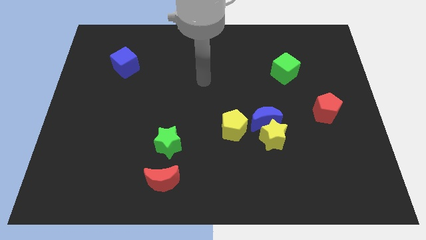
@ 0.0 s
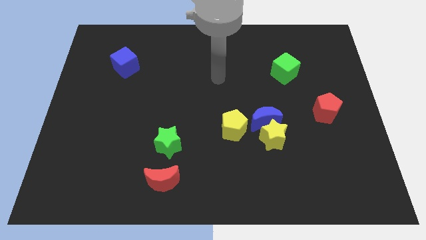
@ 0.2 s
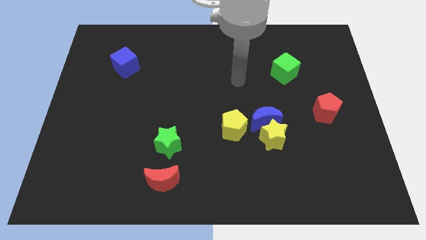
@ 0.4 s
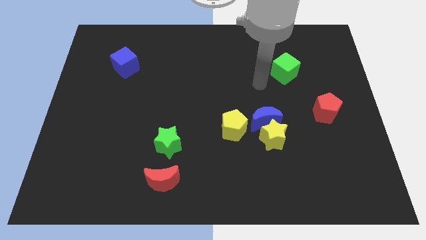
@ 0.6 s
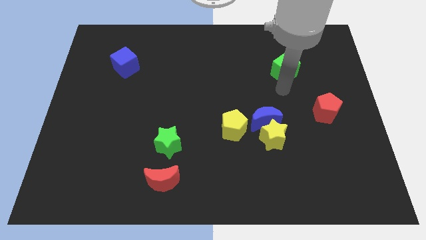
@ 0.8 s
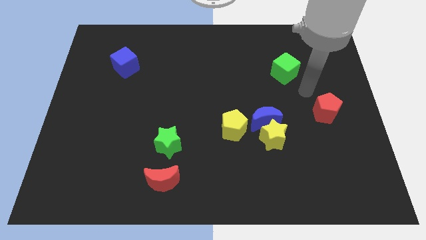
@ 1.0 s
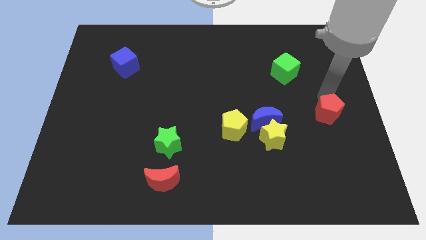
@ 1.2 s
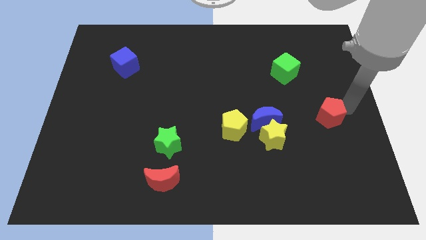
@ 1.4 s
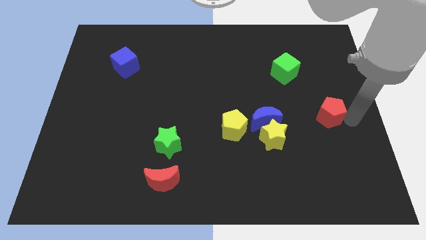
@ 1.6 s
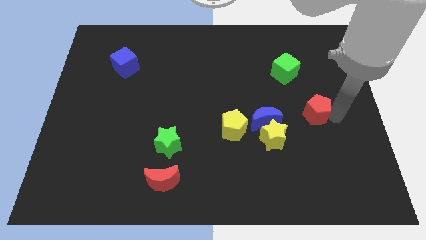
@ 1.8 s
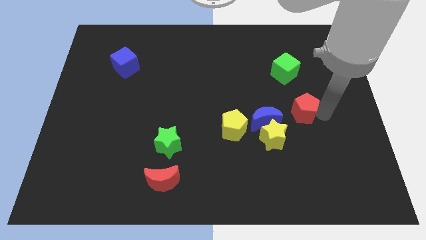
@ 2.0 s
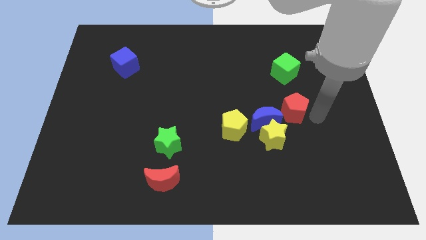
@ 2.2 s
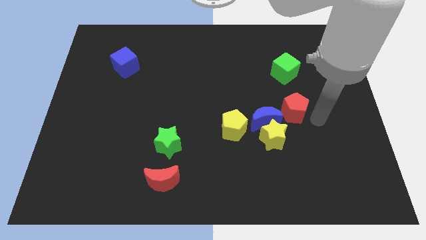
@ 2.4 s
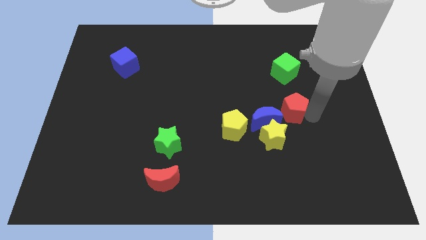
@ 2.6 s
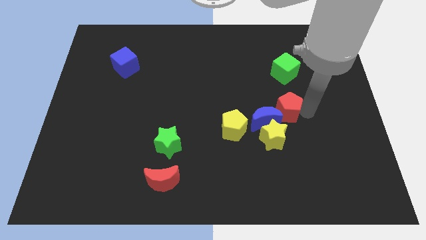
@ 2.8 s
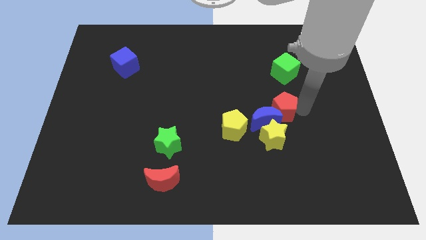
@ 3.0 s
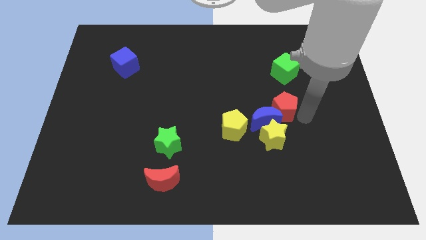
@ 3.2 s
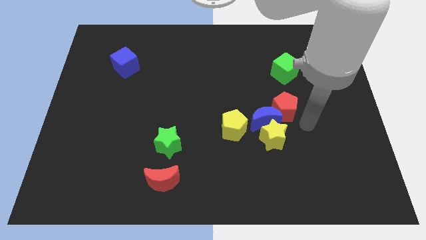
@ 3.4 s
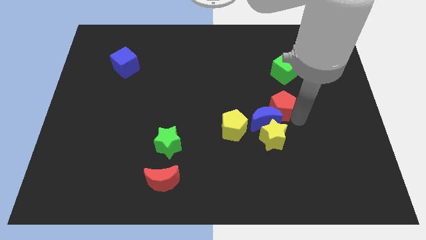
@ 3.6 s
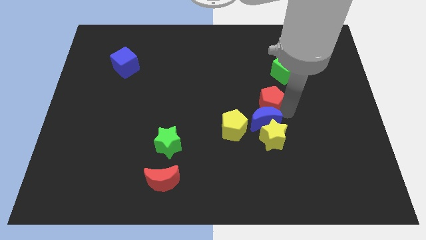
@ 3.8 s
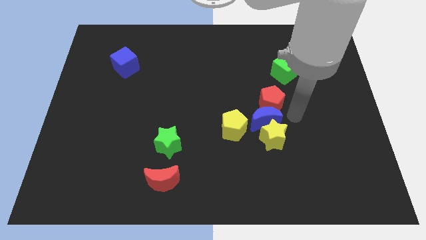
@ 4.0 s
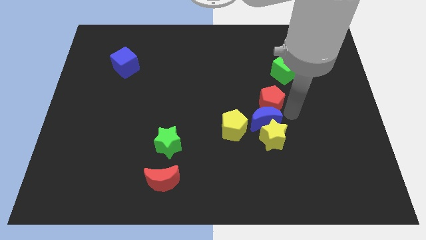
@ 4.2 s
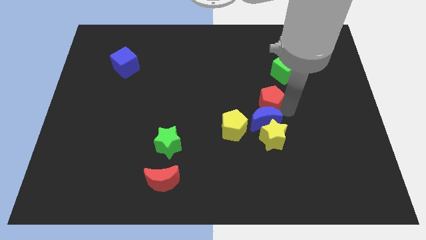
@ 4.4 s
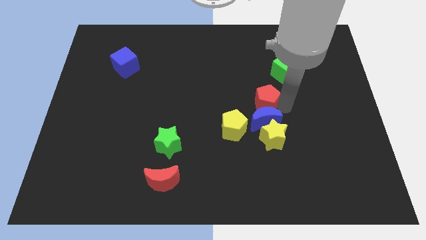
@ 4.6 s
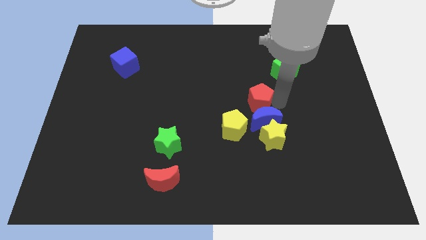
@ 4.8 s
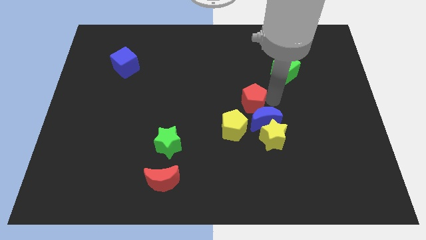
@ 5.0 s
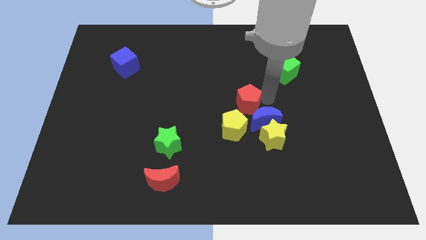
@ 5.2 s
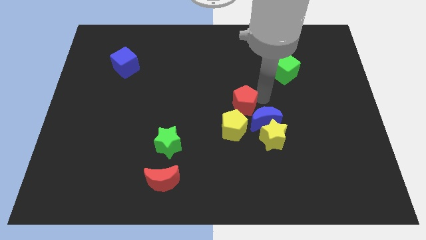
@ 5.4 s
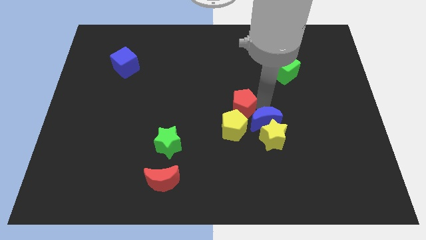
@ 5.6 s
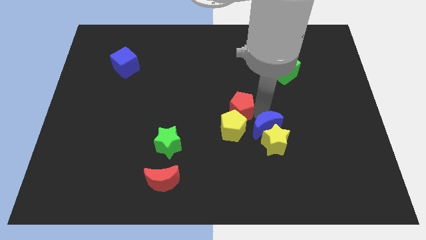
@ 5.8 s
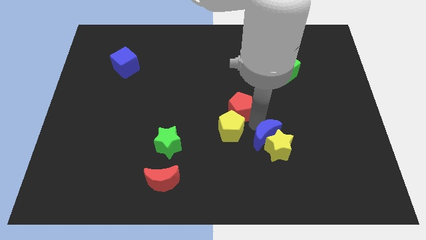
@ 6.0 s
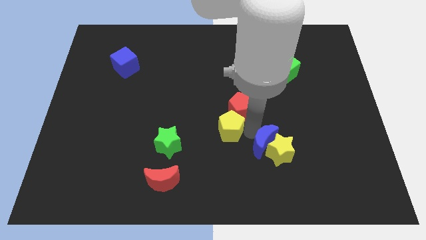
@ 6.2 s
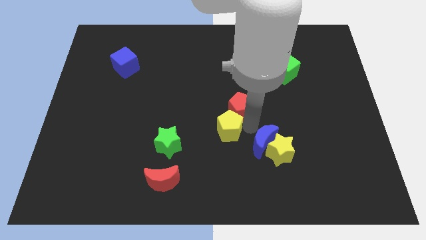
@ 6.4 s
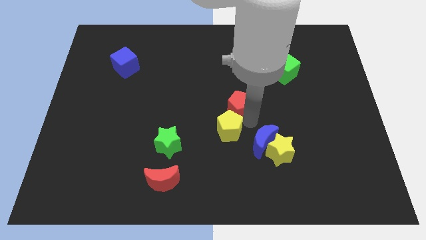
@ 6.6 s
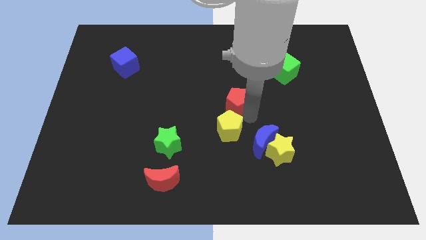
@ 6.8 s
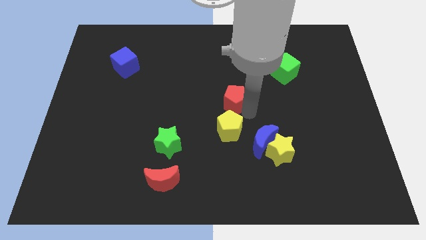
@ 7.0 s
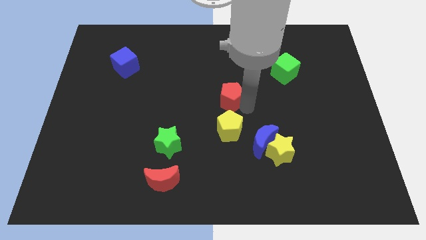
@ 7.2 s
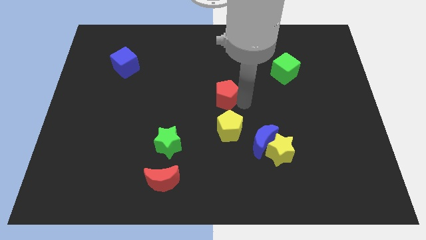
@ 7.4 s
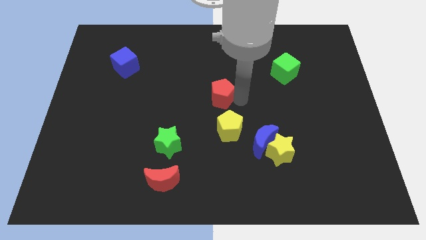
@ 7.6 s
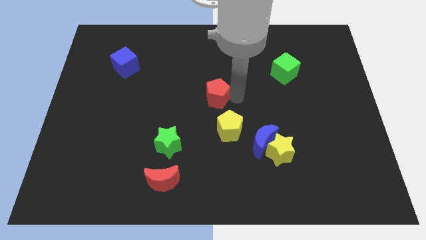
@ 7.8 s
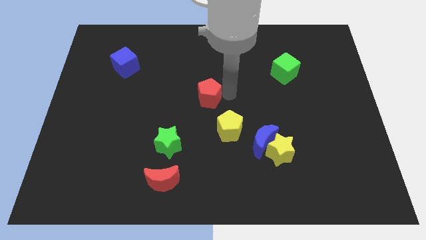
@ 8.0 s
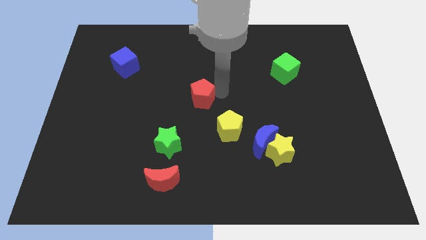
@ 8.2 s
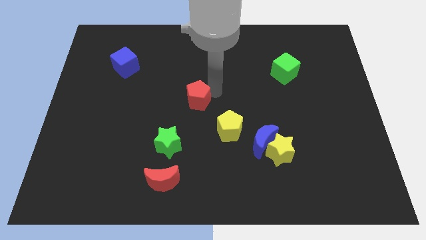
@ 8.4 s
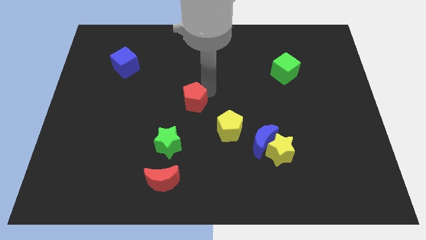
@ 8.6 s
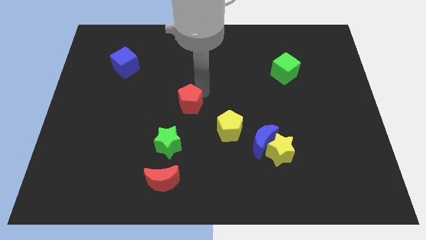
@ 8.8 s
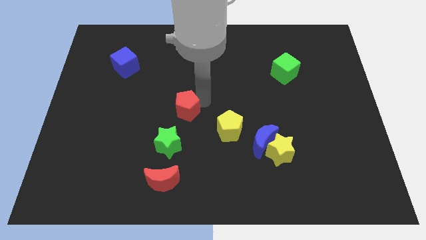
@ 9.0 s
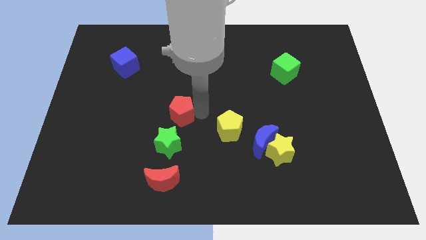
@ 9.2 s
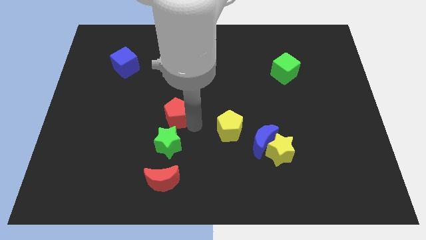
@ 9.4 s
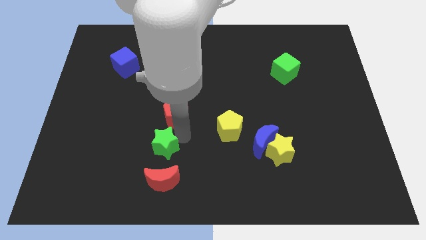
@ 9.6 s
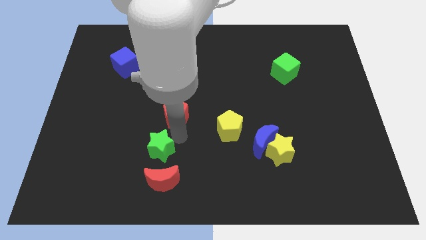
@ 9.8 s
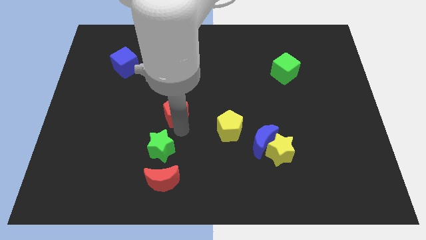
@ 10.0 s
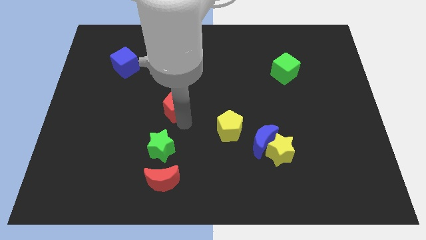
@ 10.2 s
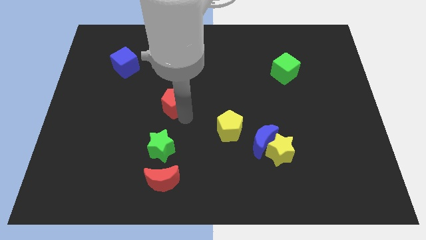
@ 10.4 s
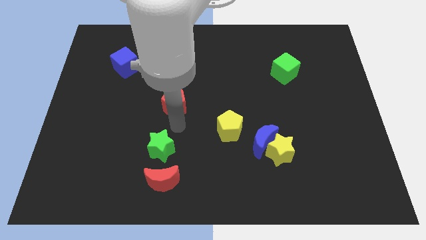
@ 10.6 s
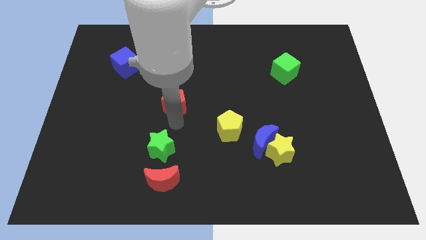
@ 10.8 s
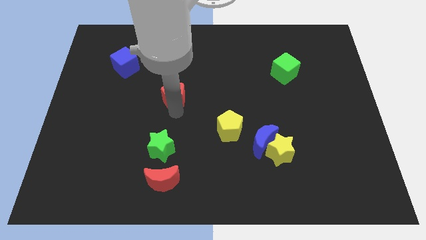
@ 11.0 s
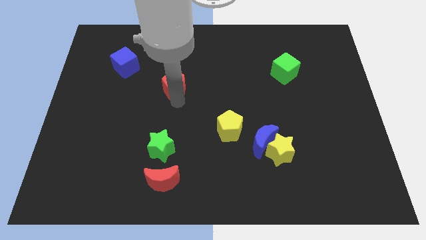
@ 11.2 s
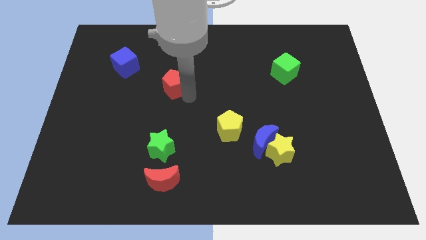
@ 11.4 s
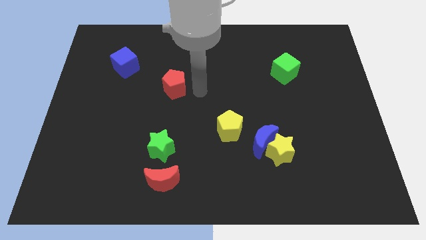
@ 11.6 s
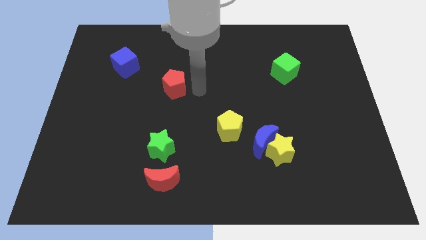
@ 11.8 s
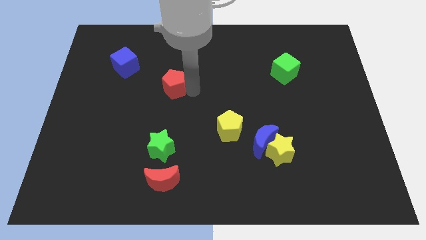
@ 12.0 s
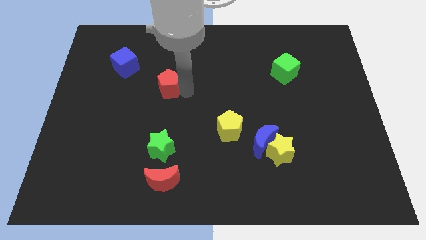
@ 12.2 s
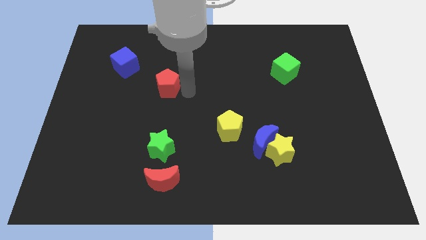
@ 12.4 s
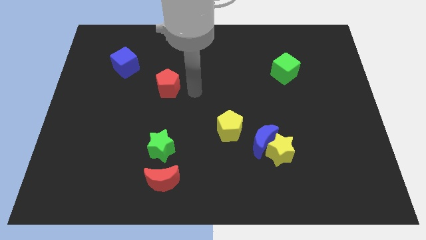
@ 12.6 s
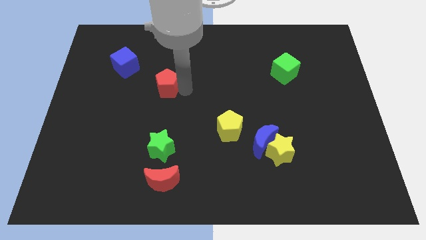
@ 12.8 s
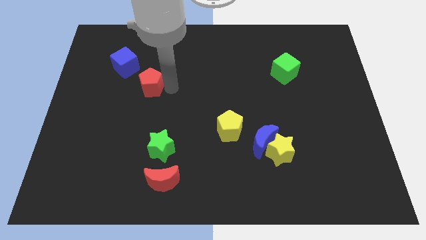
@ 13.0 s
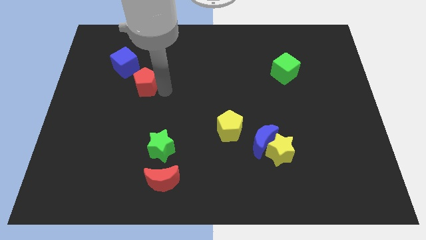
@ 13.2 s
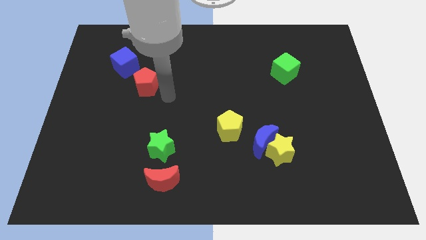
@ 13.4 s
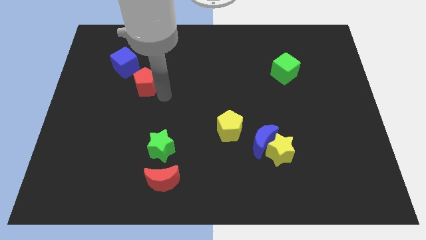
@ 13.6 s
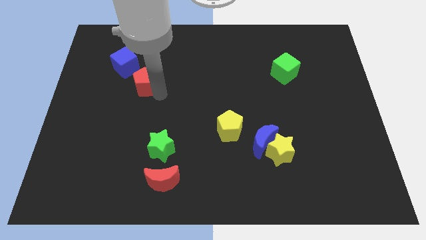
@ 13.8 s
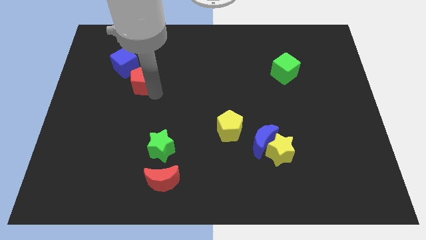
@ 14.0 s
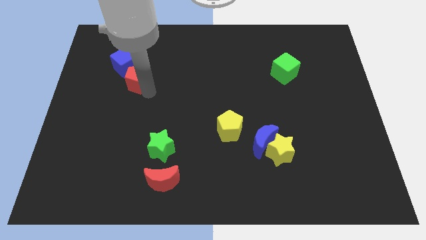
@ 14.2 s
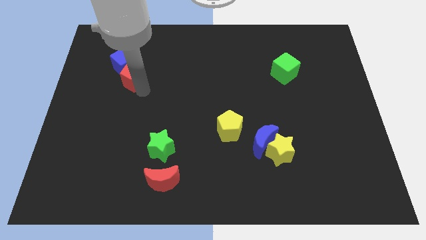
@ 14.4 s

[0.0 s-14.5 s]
move the red pentagon towards the blue cube
